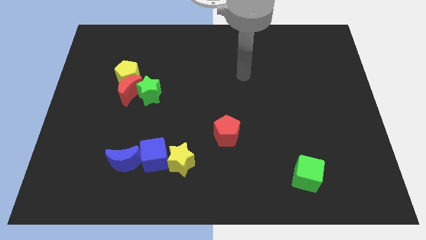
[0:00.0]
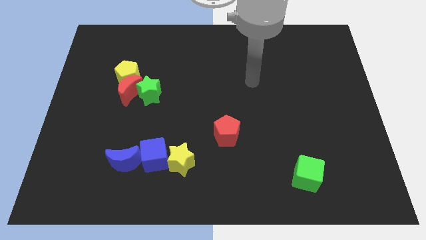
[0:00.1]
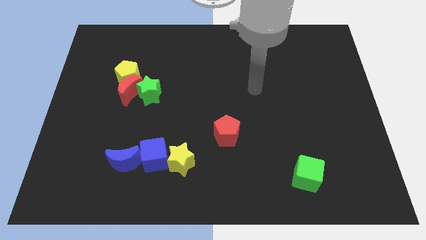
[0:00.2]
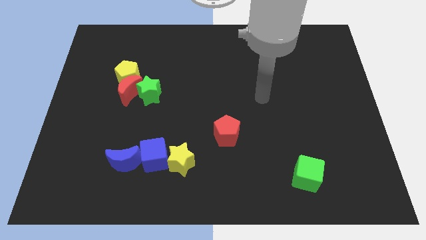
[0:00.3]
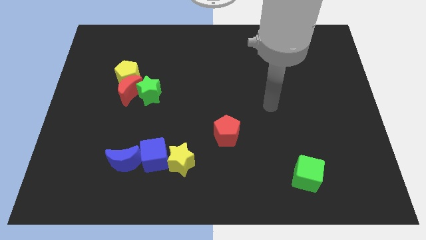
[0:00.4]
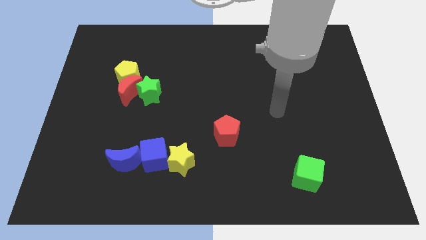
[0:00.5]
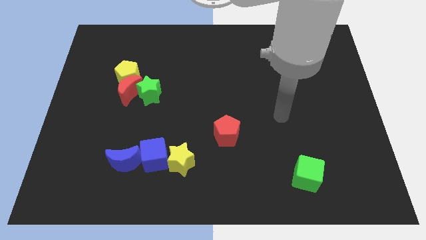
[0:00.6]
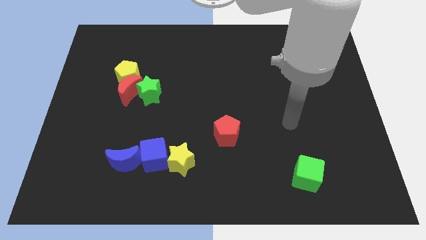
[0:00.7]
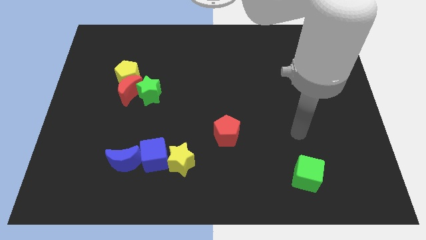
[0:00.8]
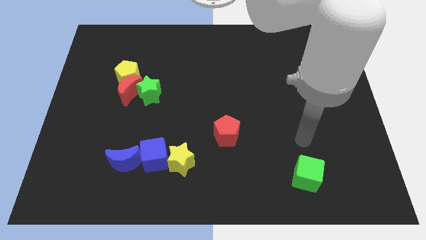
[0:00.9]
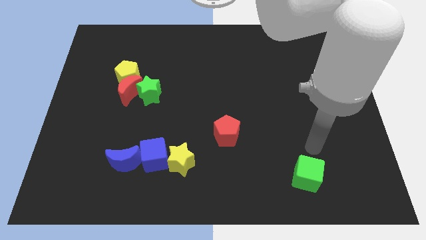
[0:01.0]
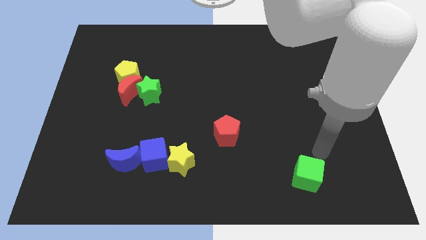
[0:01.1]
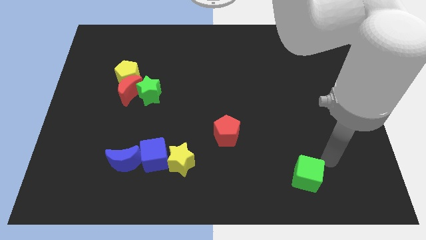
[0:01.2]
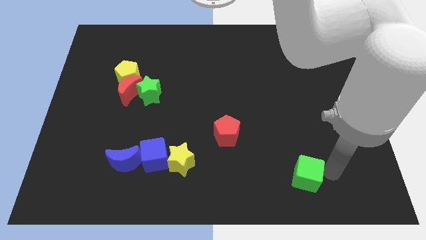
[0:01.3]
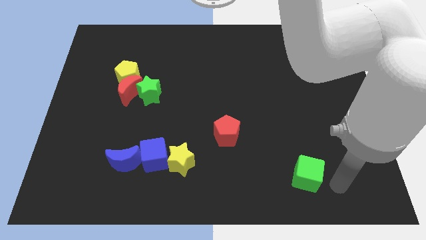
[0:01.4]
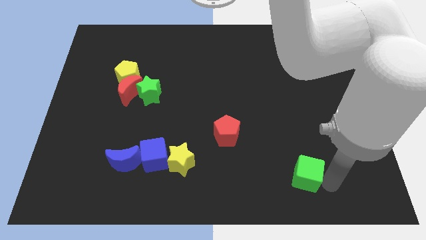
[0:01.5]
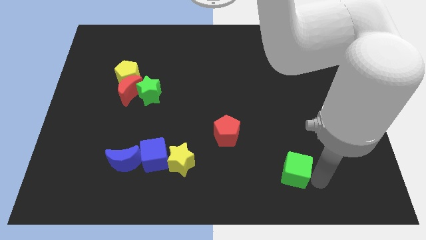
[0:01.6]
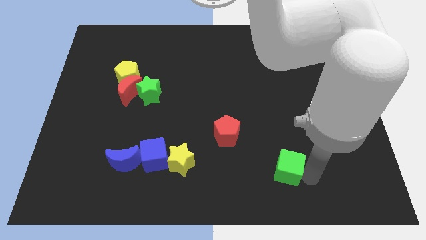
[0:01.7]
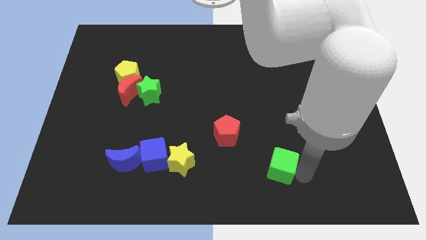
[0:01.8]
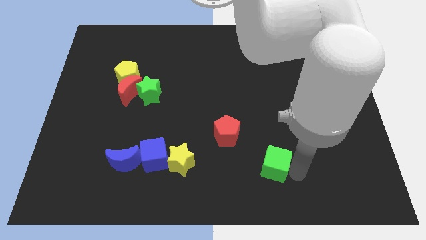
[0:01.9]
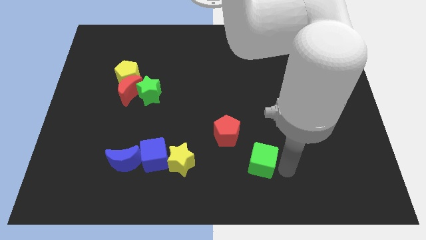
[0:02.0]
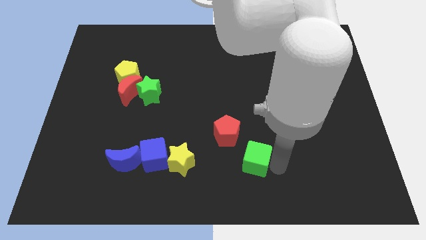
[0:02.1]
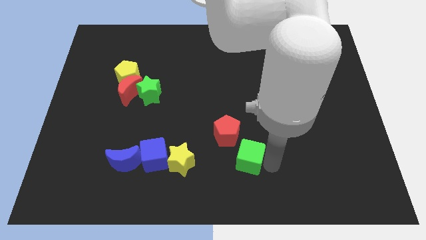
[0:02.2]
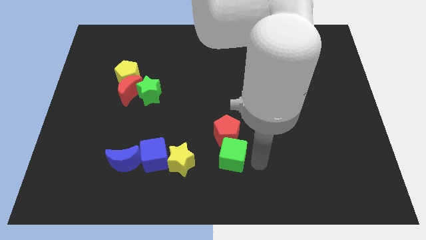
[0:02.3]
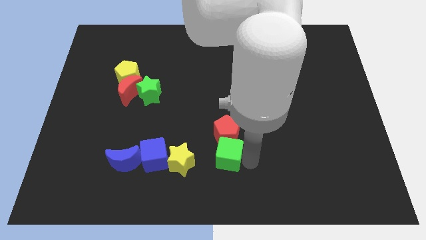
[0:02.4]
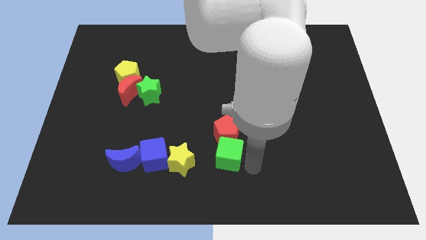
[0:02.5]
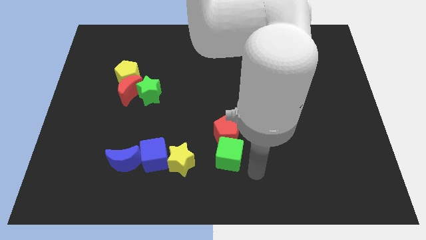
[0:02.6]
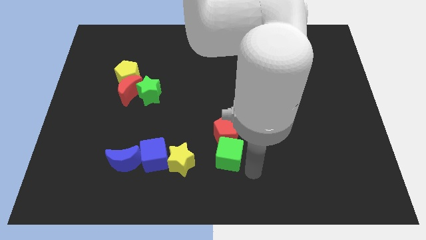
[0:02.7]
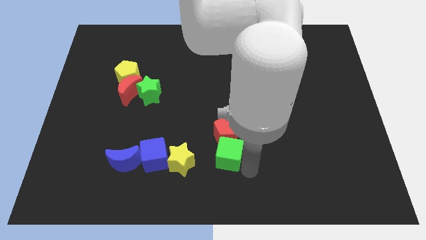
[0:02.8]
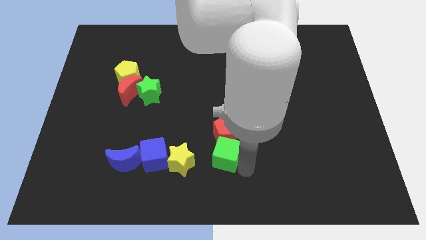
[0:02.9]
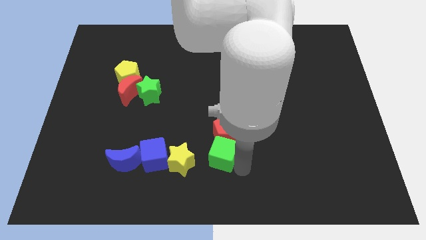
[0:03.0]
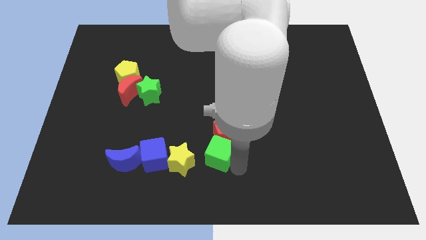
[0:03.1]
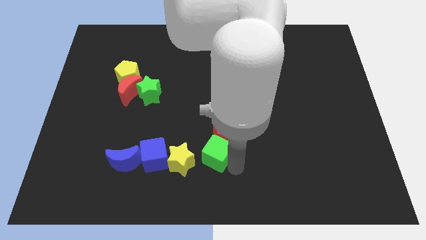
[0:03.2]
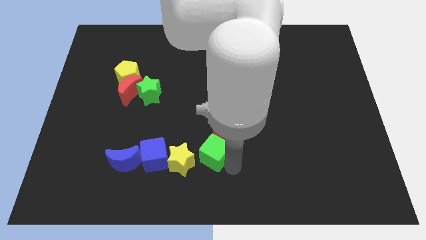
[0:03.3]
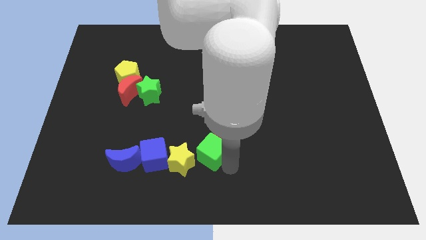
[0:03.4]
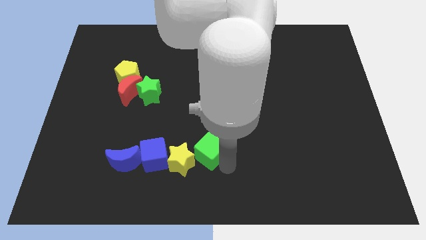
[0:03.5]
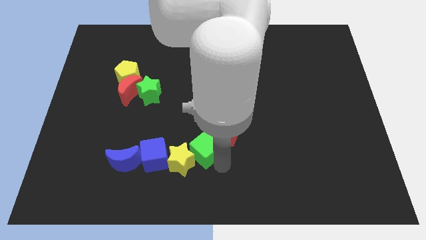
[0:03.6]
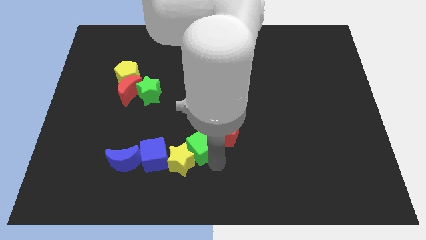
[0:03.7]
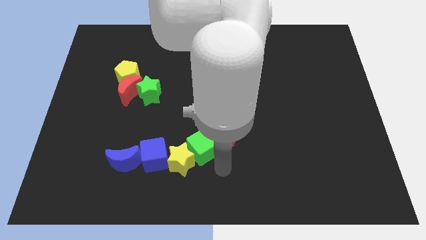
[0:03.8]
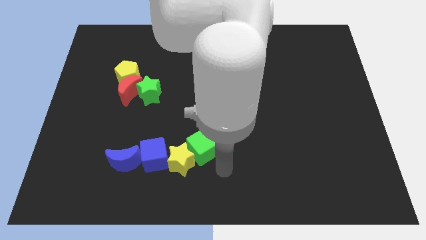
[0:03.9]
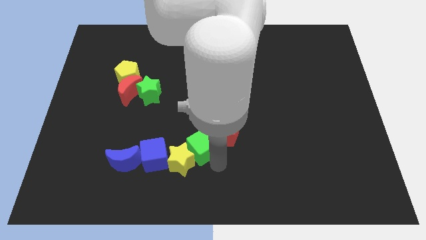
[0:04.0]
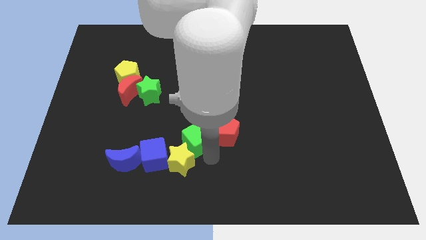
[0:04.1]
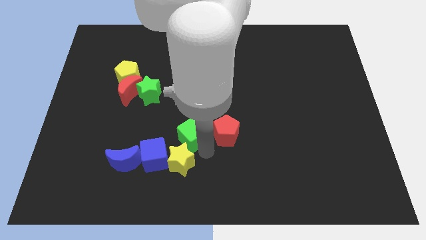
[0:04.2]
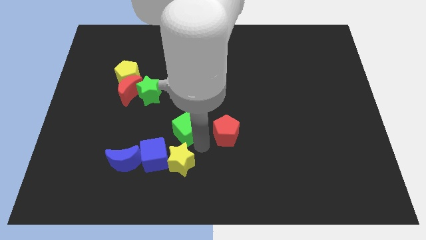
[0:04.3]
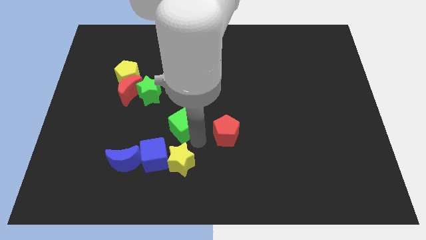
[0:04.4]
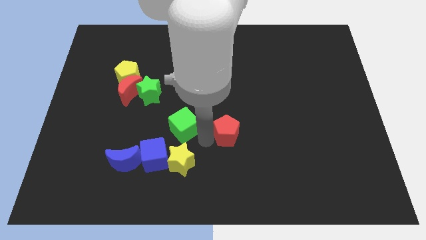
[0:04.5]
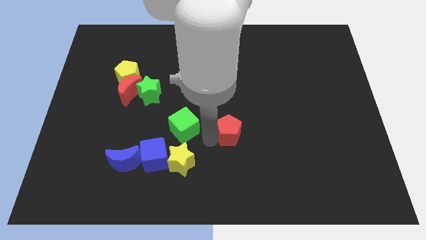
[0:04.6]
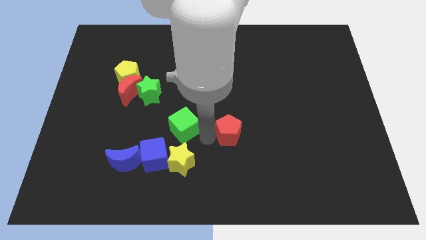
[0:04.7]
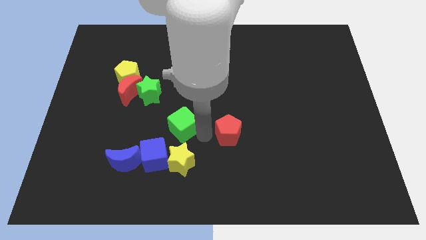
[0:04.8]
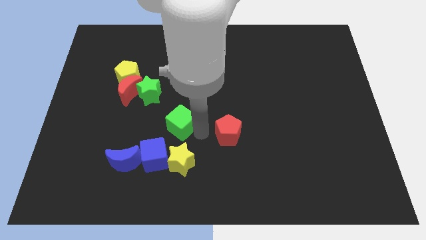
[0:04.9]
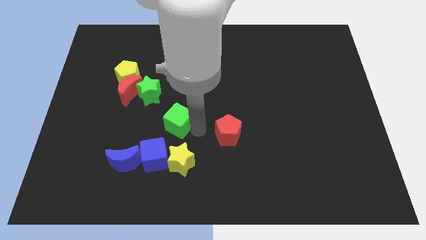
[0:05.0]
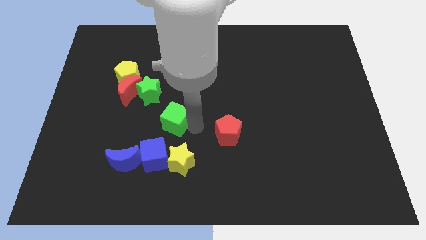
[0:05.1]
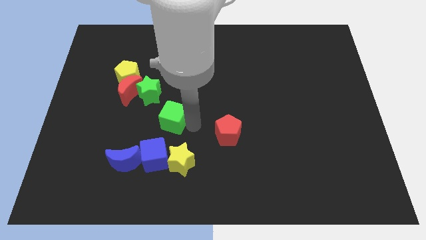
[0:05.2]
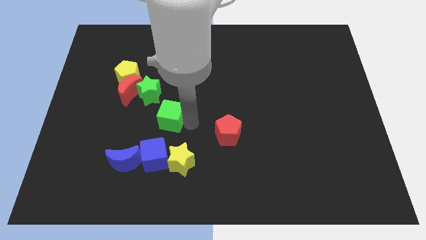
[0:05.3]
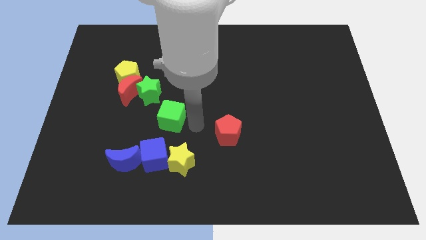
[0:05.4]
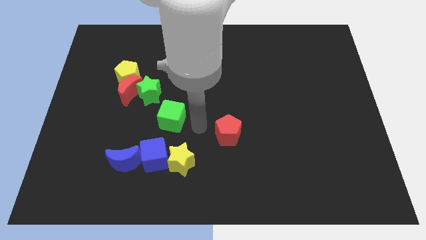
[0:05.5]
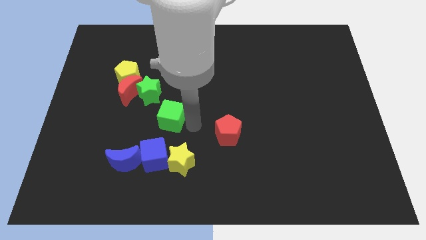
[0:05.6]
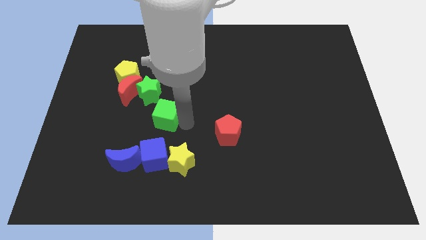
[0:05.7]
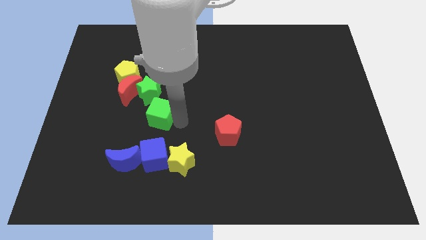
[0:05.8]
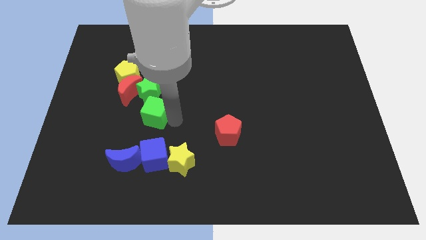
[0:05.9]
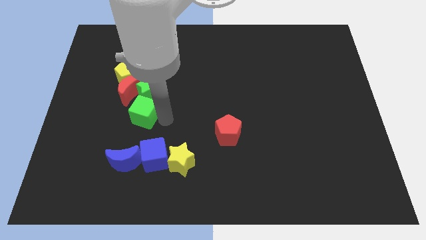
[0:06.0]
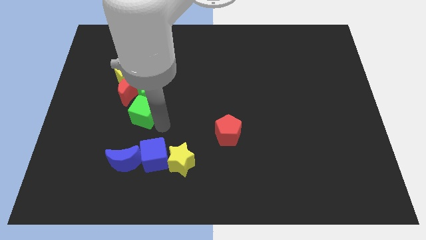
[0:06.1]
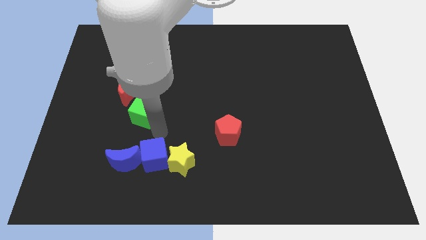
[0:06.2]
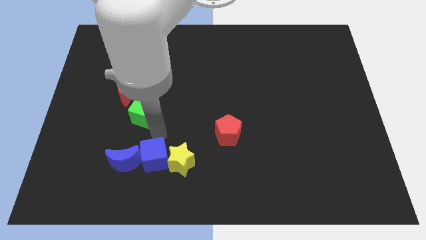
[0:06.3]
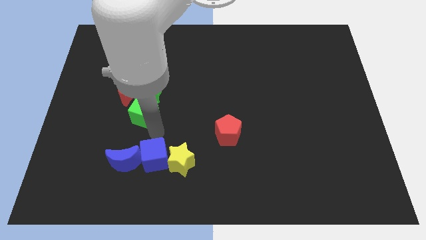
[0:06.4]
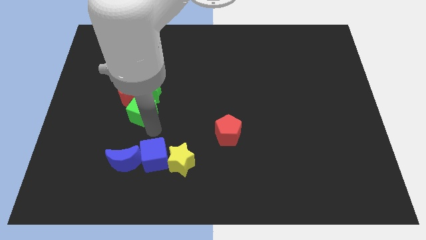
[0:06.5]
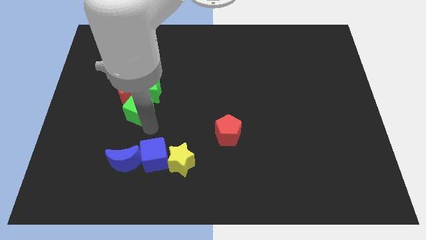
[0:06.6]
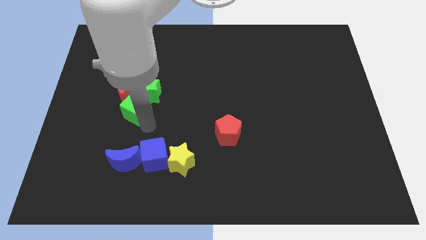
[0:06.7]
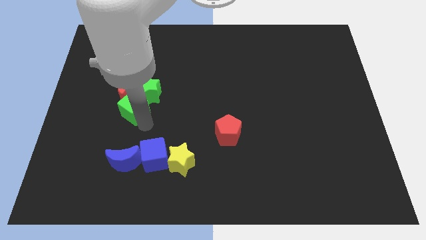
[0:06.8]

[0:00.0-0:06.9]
slide the green cube next to the red moon

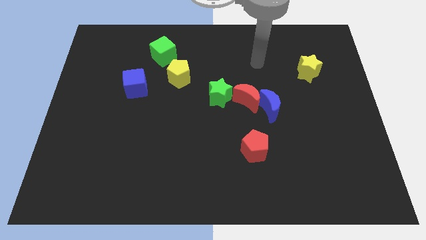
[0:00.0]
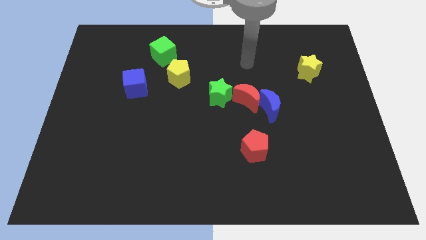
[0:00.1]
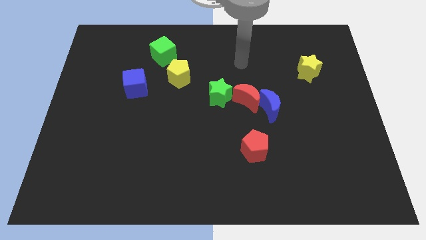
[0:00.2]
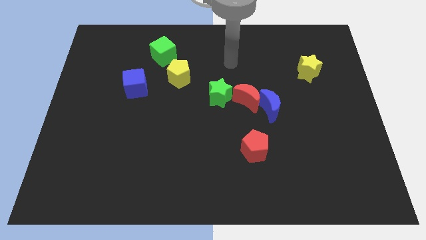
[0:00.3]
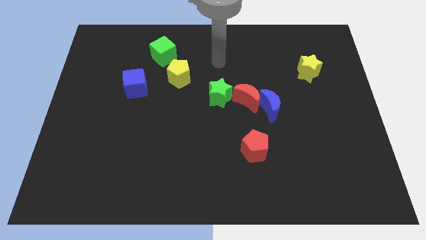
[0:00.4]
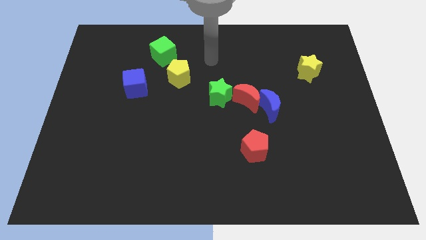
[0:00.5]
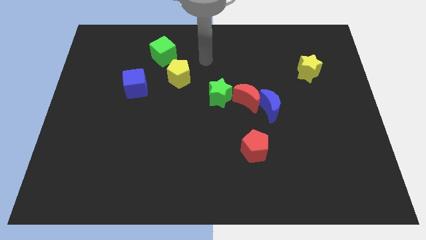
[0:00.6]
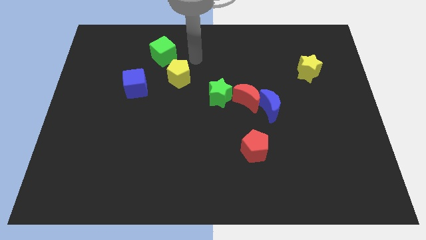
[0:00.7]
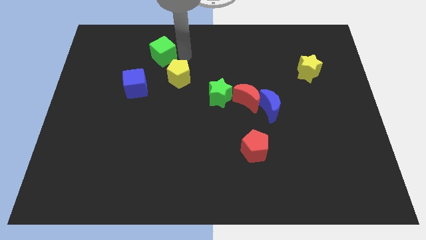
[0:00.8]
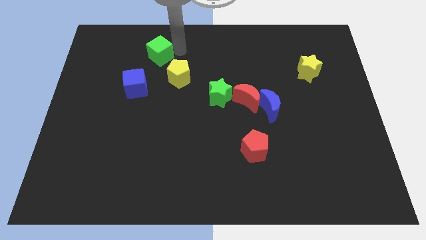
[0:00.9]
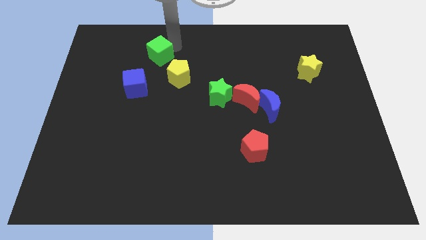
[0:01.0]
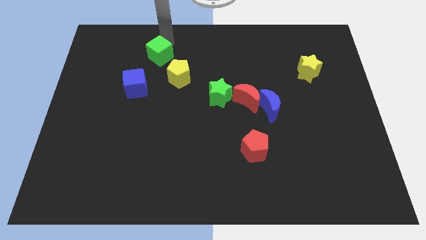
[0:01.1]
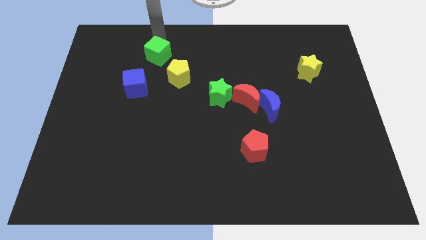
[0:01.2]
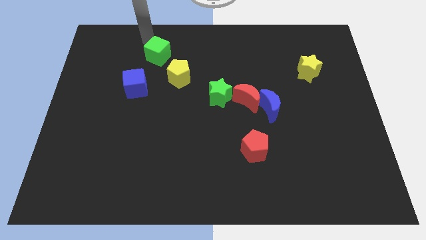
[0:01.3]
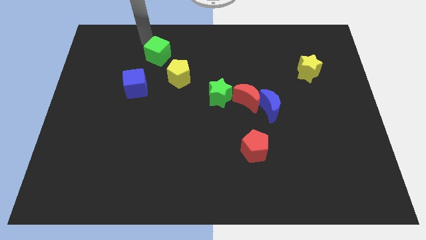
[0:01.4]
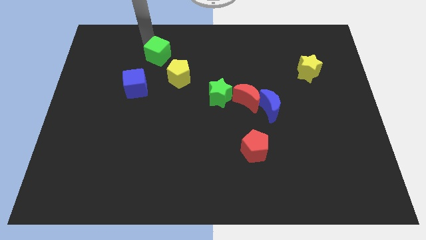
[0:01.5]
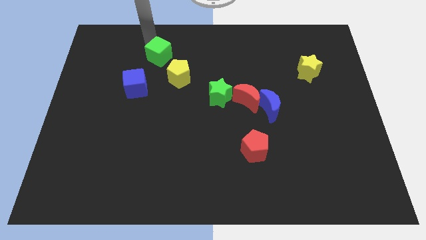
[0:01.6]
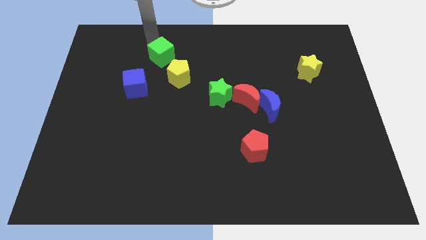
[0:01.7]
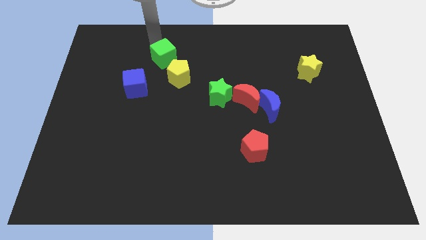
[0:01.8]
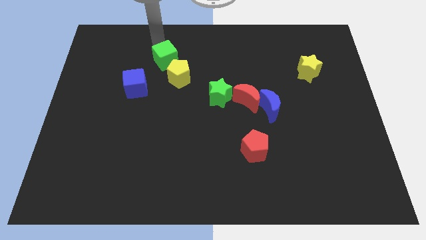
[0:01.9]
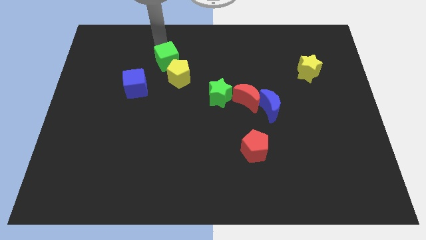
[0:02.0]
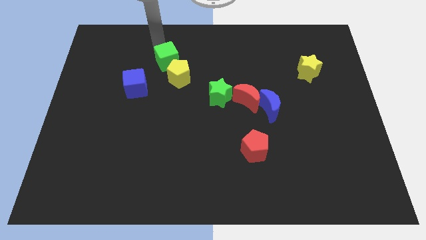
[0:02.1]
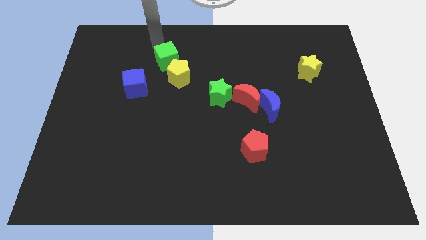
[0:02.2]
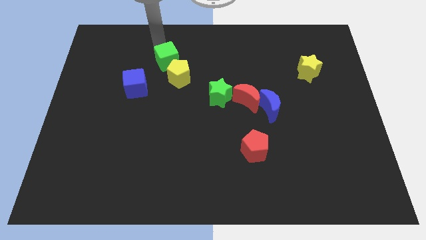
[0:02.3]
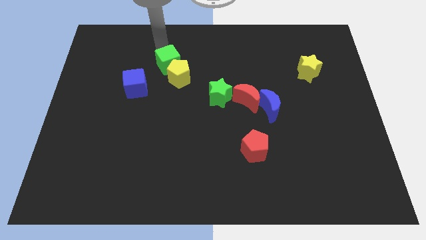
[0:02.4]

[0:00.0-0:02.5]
push the green cube next to the yellow pentagon
